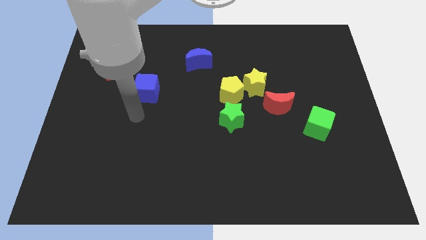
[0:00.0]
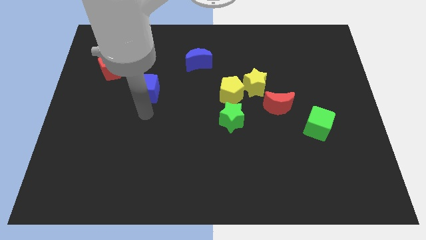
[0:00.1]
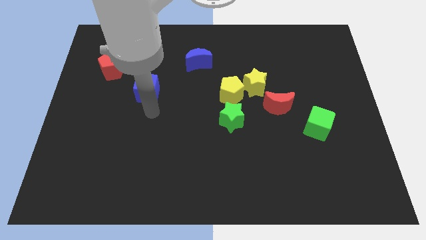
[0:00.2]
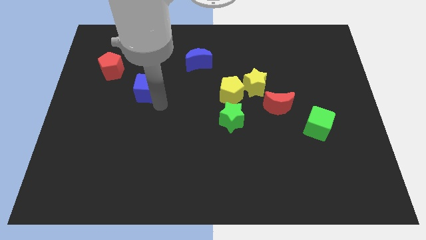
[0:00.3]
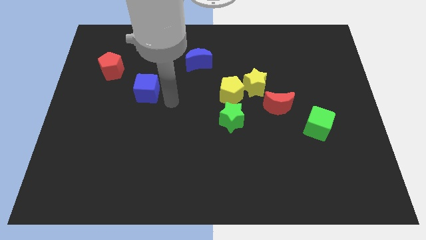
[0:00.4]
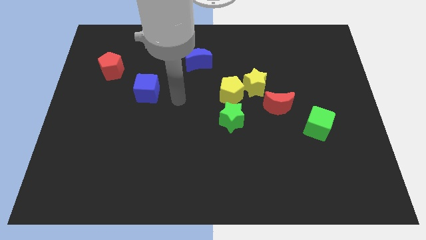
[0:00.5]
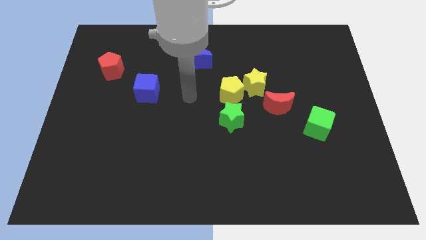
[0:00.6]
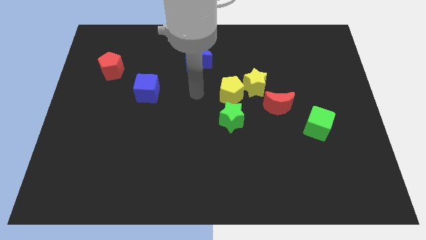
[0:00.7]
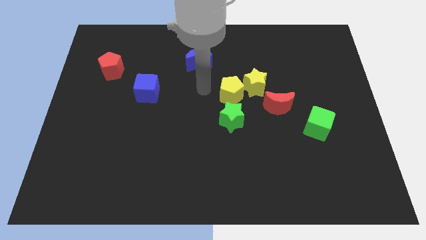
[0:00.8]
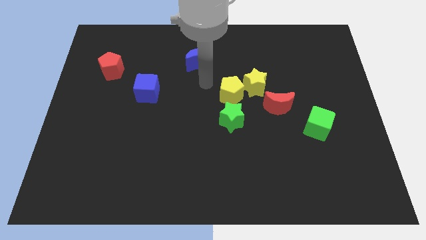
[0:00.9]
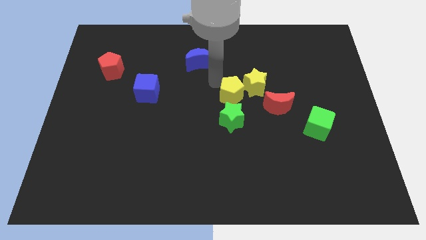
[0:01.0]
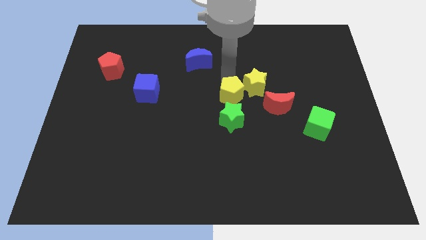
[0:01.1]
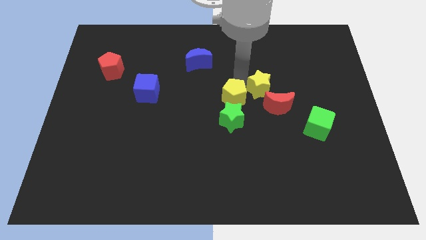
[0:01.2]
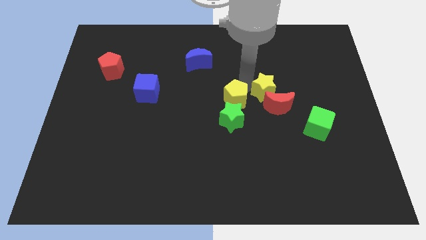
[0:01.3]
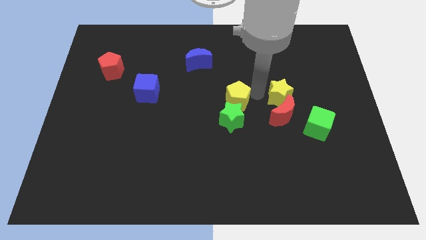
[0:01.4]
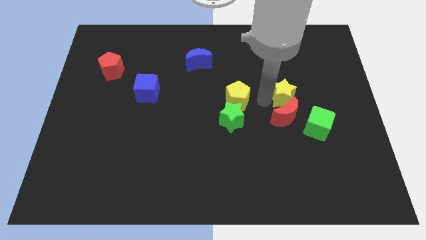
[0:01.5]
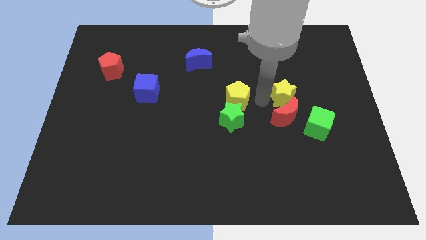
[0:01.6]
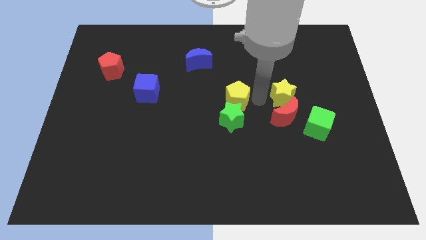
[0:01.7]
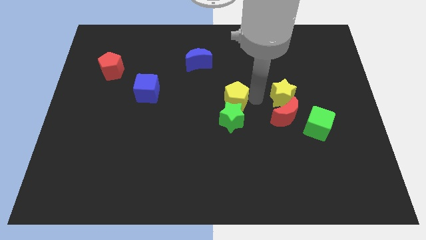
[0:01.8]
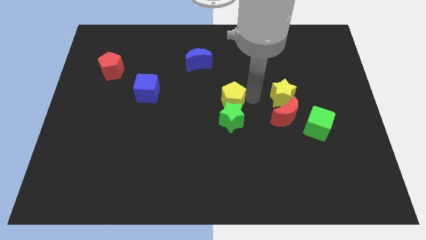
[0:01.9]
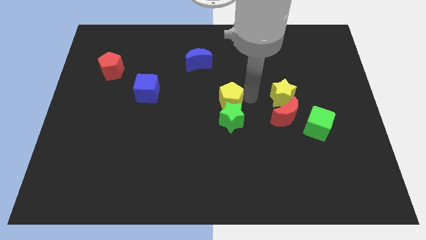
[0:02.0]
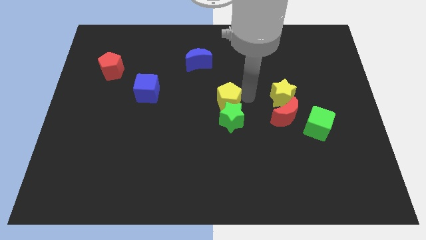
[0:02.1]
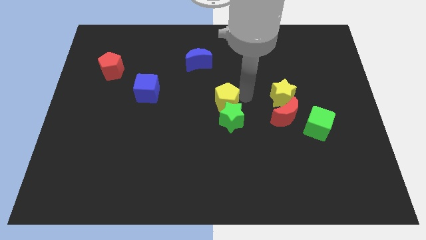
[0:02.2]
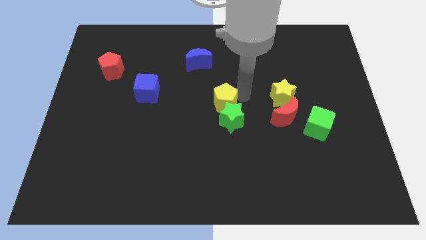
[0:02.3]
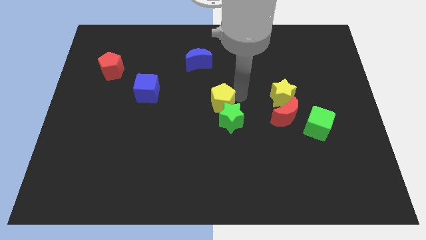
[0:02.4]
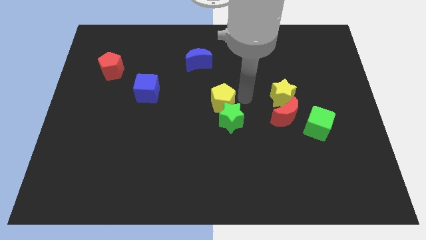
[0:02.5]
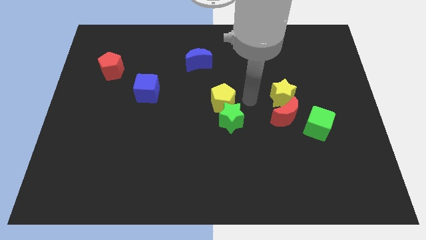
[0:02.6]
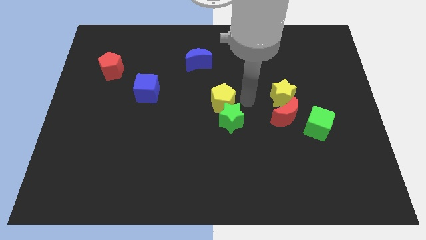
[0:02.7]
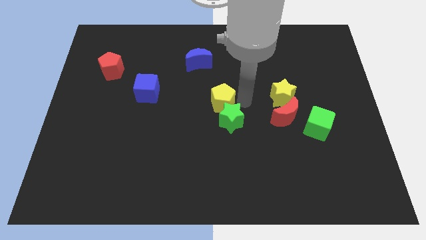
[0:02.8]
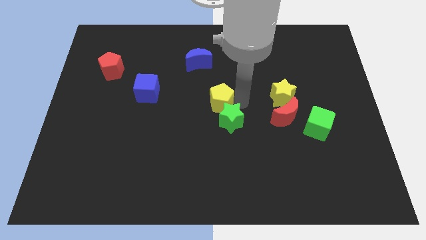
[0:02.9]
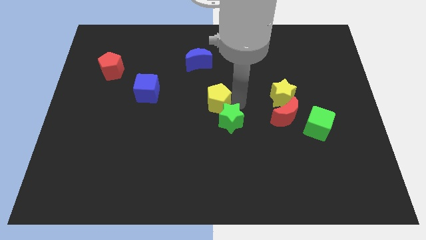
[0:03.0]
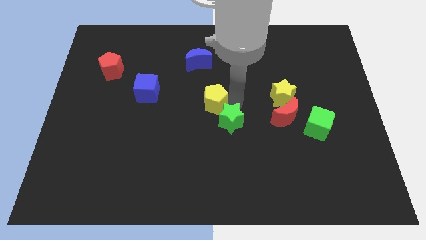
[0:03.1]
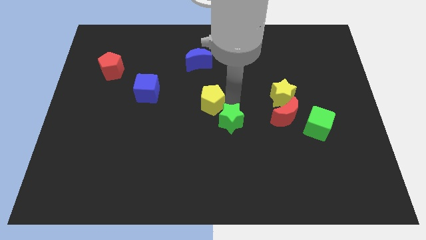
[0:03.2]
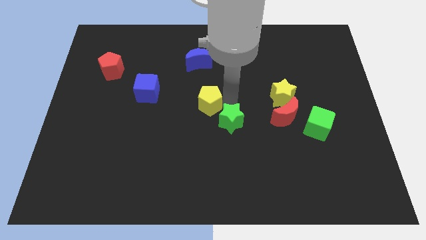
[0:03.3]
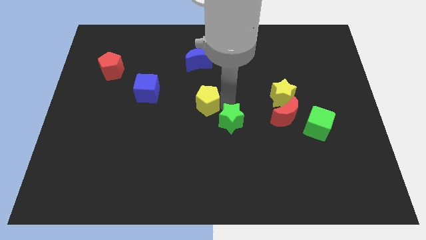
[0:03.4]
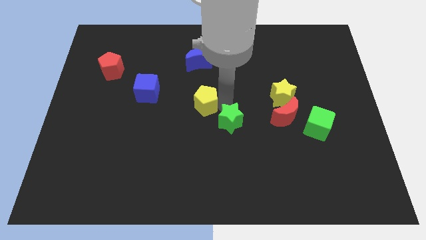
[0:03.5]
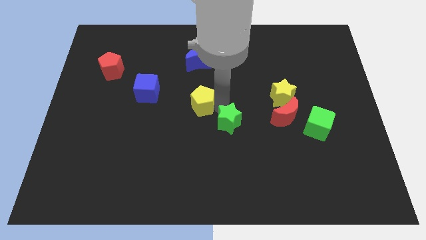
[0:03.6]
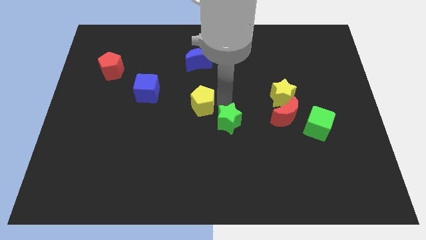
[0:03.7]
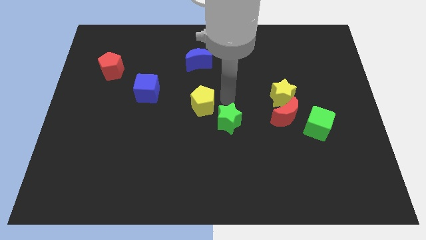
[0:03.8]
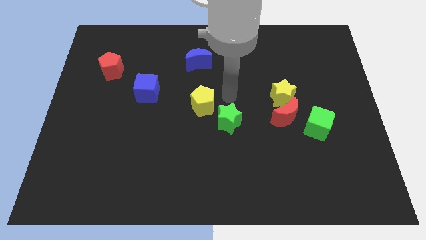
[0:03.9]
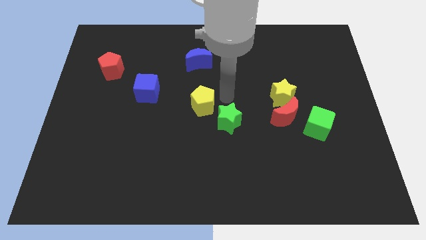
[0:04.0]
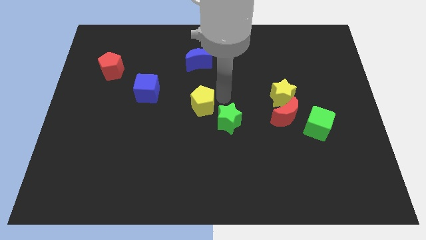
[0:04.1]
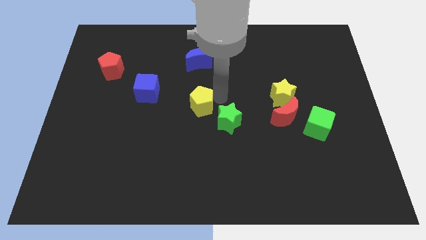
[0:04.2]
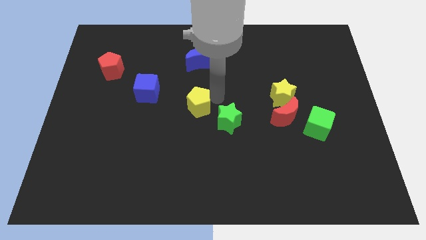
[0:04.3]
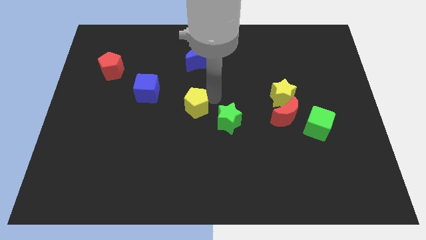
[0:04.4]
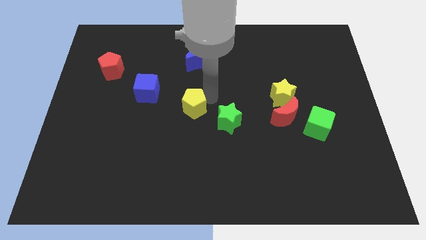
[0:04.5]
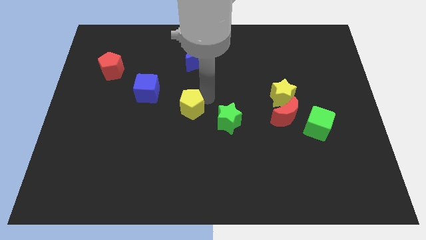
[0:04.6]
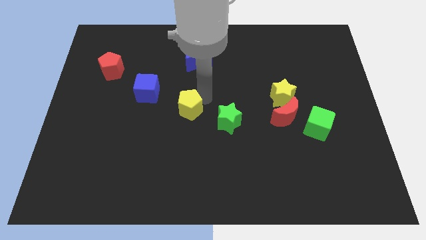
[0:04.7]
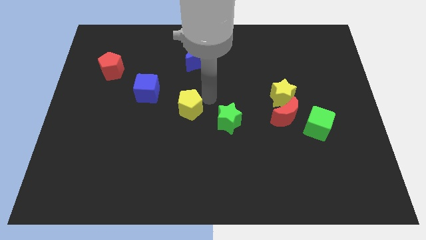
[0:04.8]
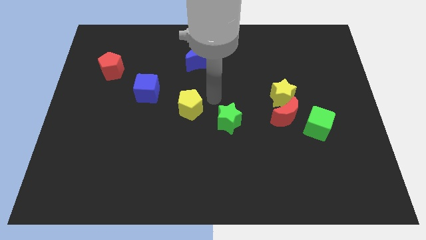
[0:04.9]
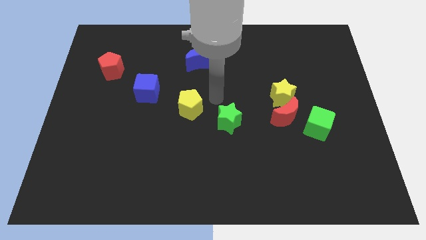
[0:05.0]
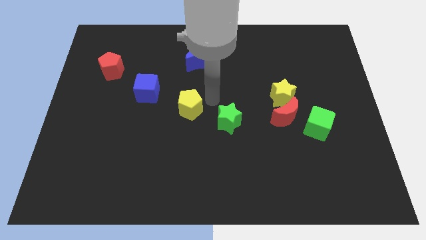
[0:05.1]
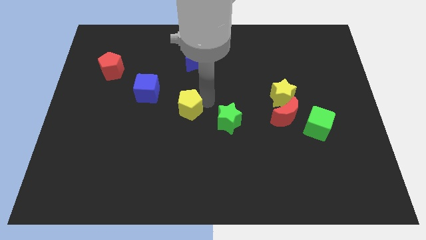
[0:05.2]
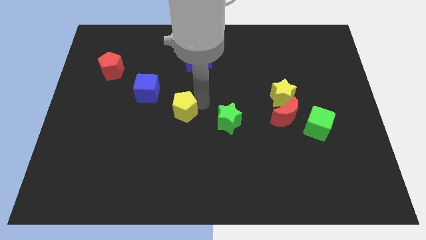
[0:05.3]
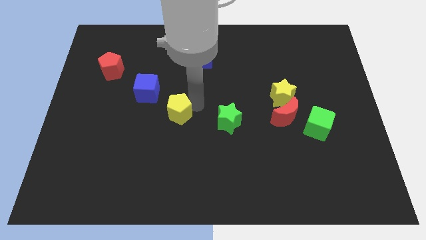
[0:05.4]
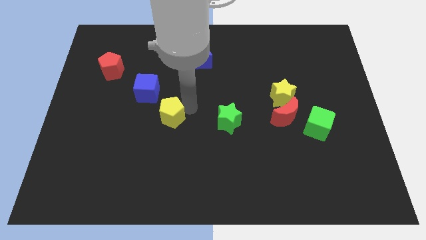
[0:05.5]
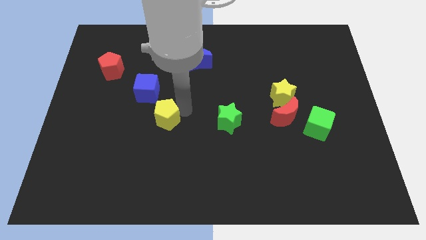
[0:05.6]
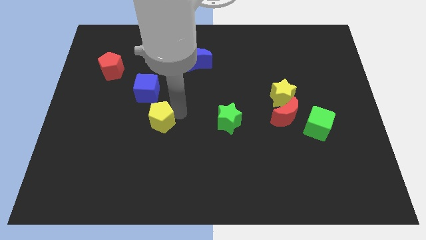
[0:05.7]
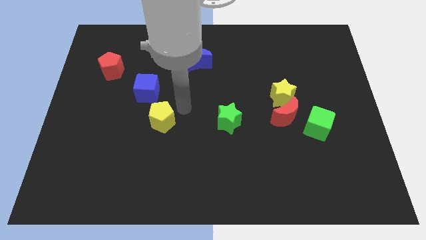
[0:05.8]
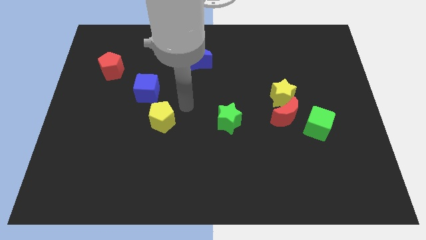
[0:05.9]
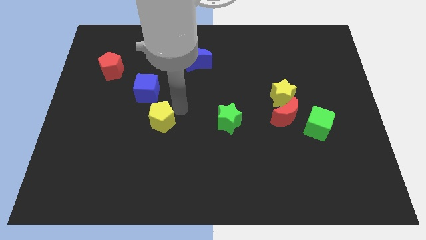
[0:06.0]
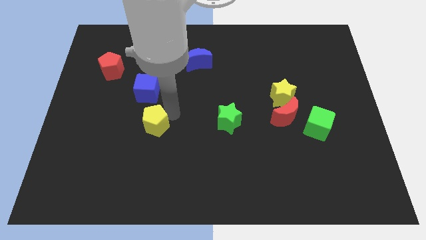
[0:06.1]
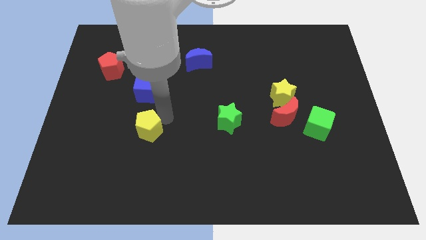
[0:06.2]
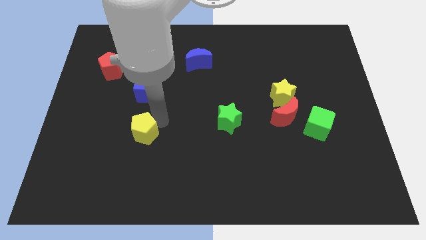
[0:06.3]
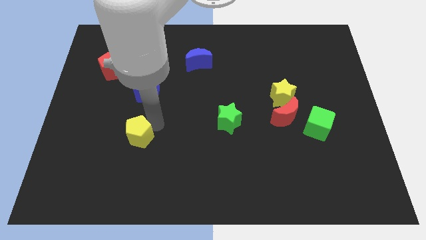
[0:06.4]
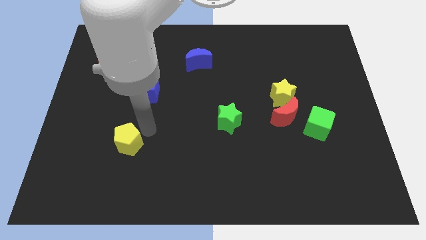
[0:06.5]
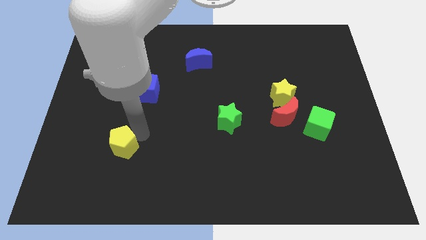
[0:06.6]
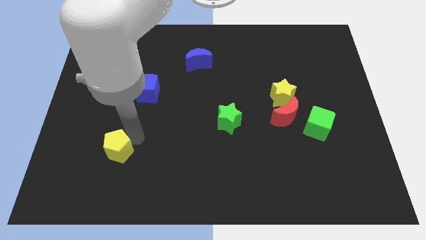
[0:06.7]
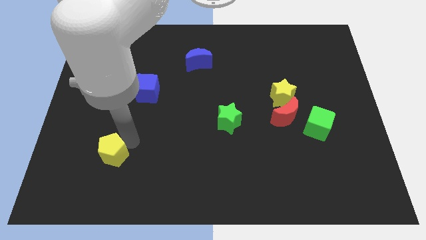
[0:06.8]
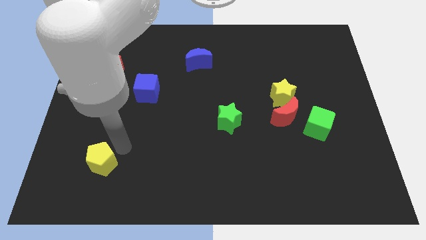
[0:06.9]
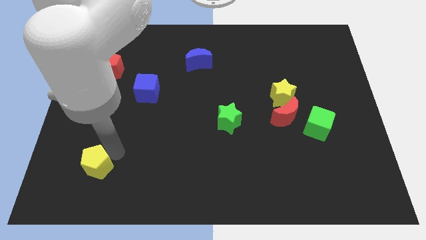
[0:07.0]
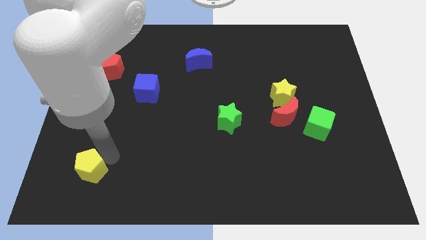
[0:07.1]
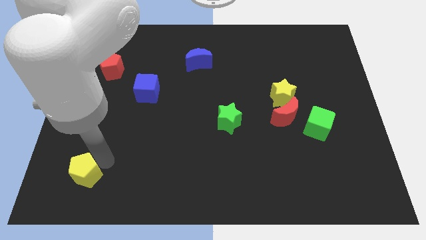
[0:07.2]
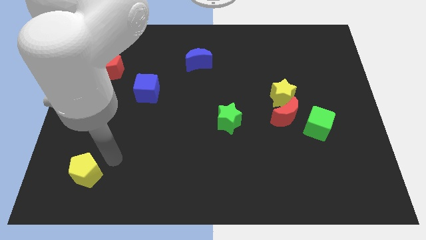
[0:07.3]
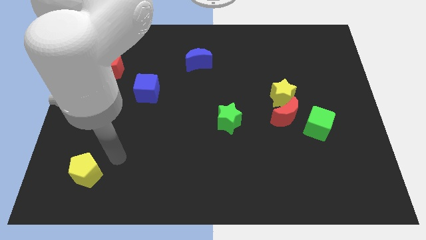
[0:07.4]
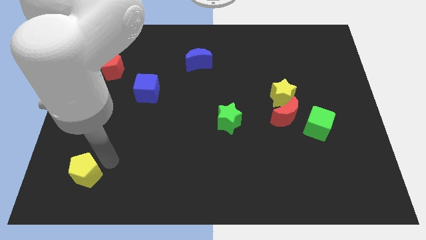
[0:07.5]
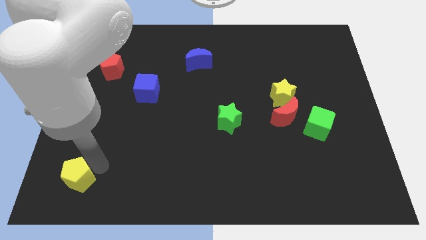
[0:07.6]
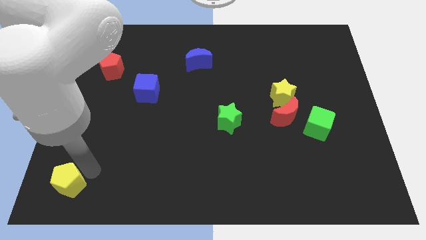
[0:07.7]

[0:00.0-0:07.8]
push the yellow pentagon to the bottom left corner
